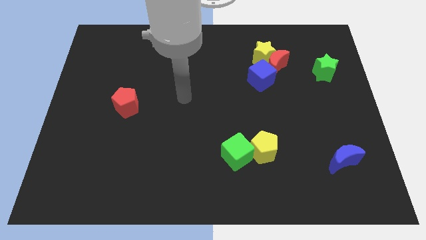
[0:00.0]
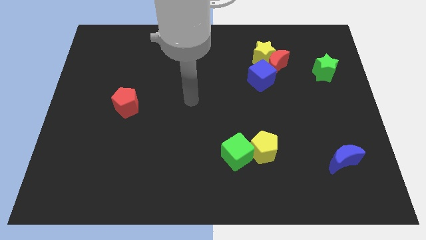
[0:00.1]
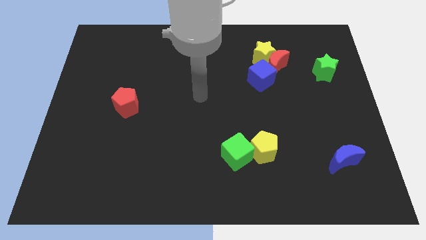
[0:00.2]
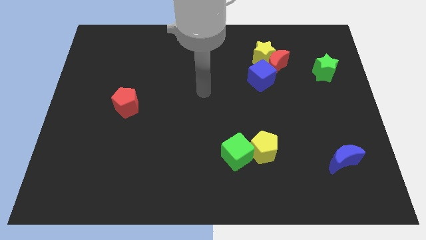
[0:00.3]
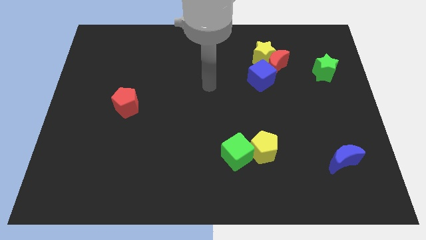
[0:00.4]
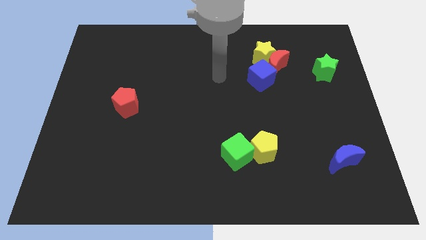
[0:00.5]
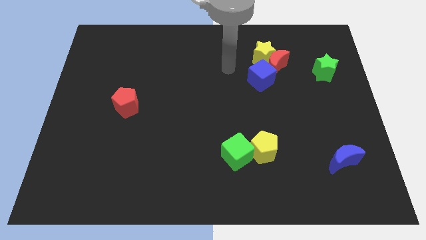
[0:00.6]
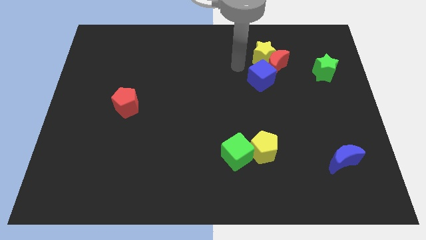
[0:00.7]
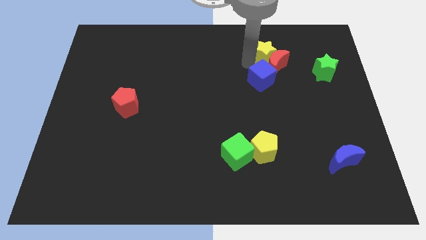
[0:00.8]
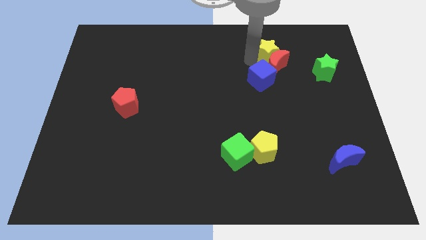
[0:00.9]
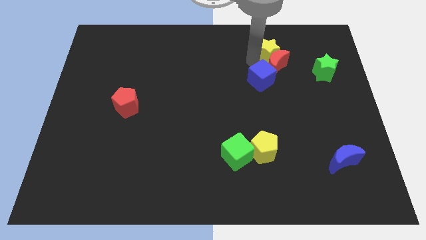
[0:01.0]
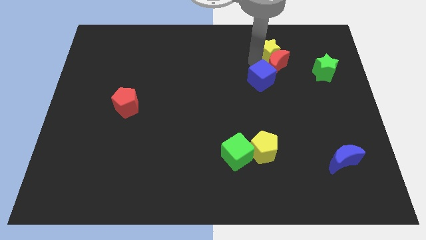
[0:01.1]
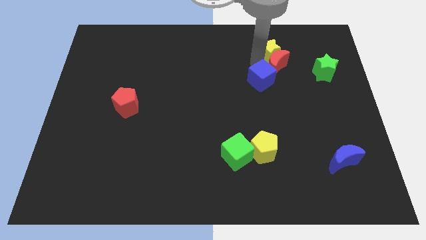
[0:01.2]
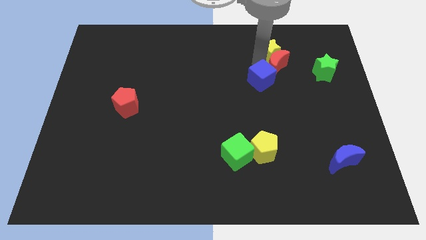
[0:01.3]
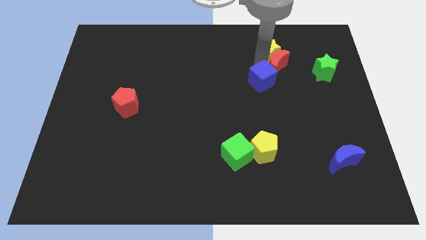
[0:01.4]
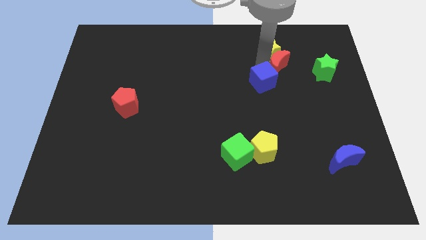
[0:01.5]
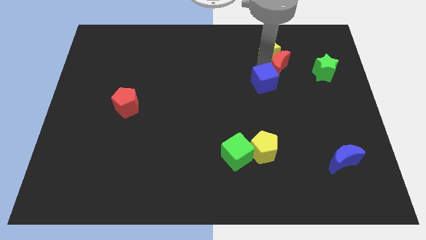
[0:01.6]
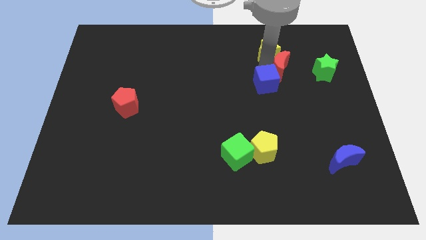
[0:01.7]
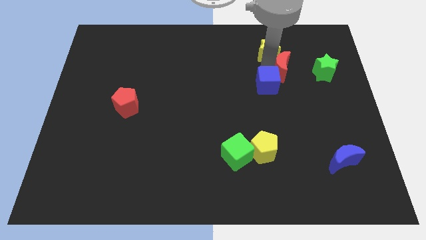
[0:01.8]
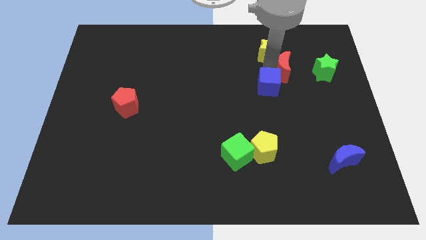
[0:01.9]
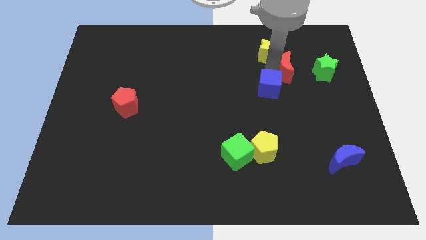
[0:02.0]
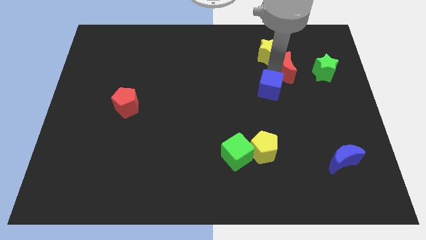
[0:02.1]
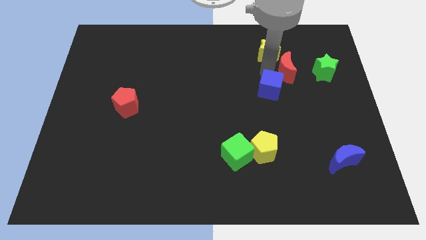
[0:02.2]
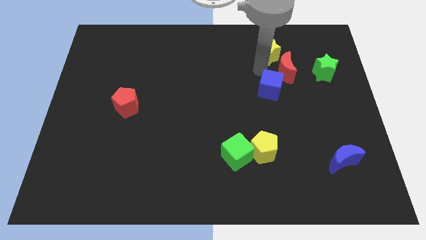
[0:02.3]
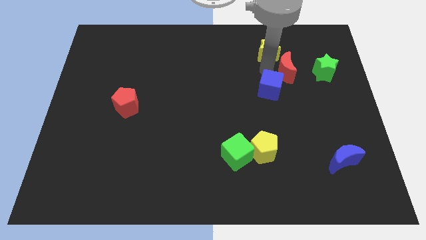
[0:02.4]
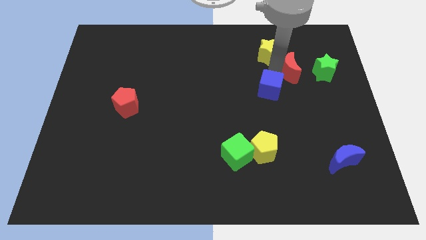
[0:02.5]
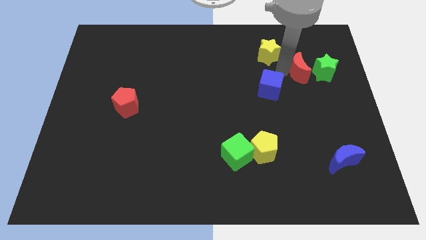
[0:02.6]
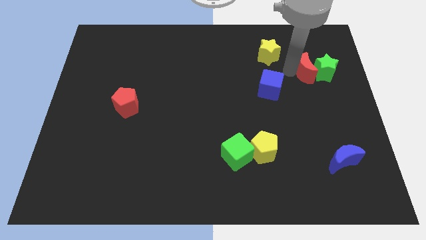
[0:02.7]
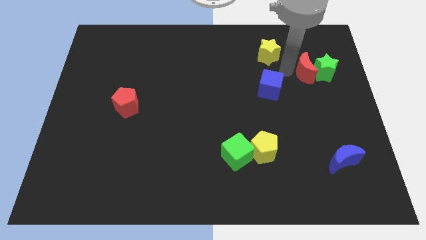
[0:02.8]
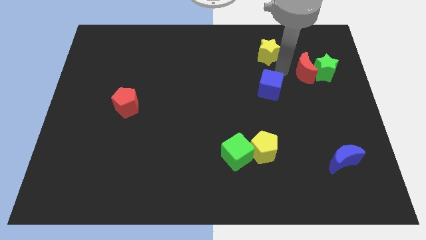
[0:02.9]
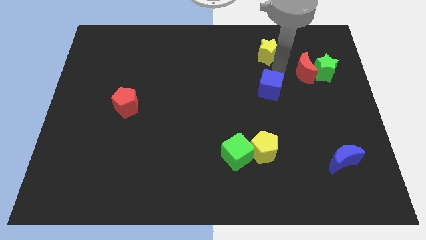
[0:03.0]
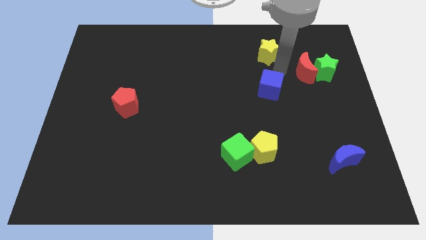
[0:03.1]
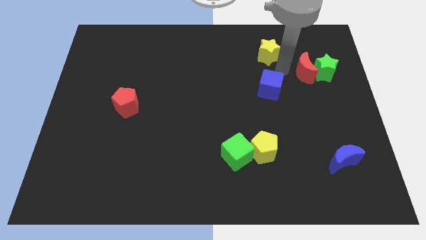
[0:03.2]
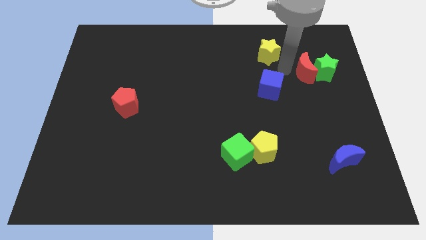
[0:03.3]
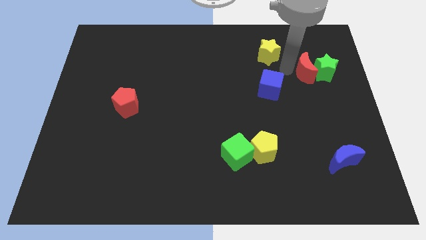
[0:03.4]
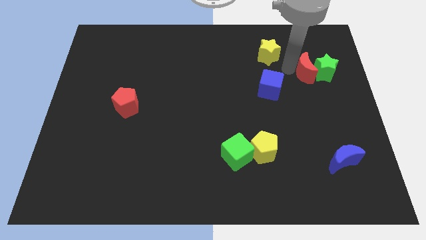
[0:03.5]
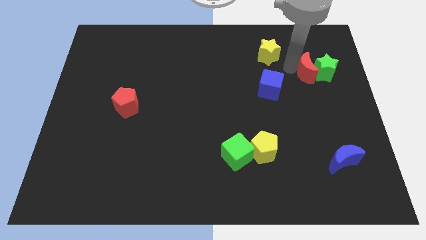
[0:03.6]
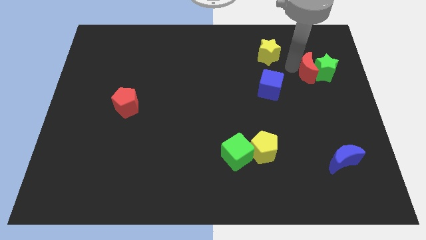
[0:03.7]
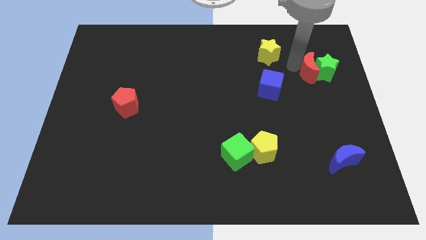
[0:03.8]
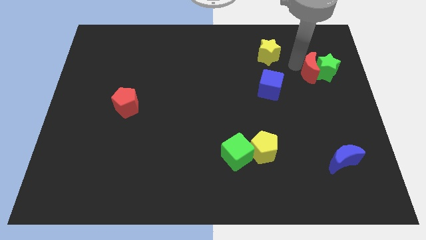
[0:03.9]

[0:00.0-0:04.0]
move the red moon away from the yellow star and blue cube

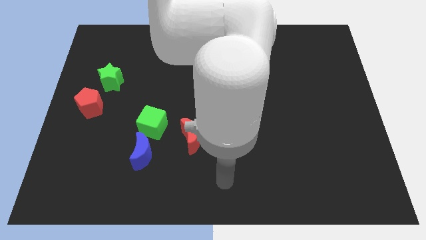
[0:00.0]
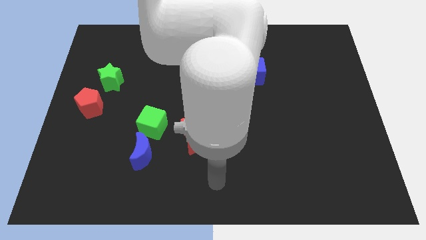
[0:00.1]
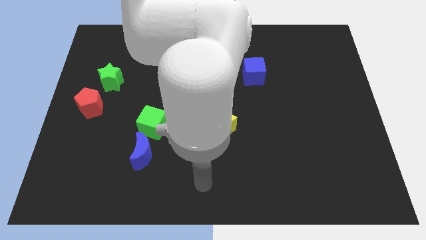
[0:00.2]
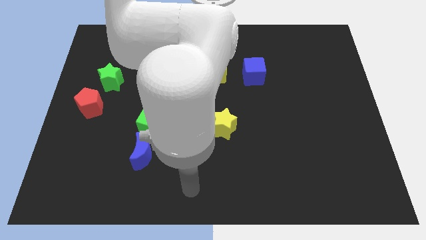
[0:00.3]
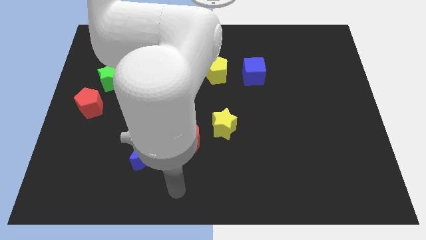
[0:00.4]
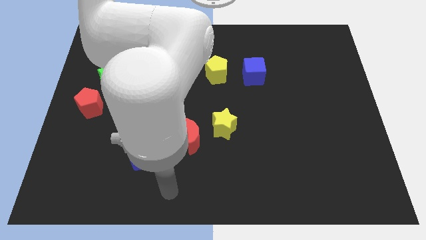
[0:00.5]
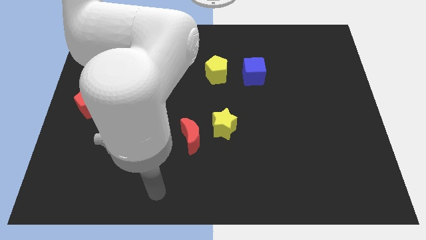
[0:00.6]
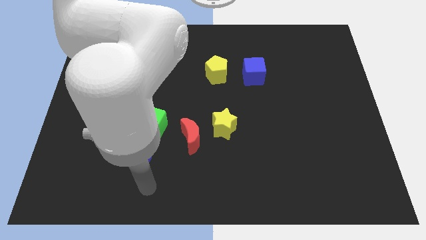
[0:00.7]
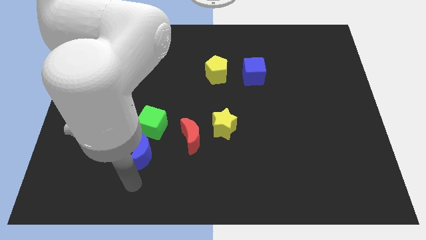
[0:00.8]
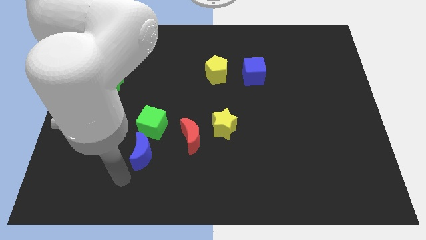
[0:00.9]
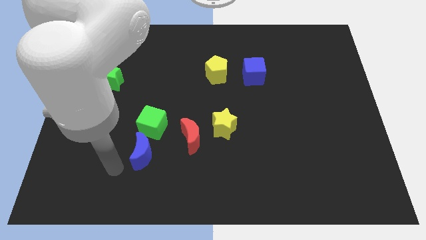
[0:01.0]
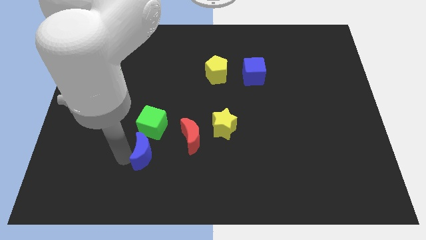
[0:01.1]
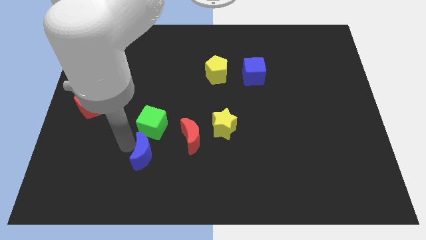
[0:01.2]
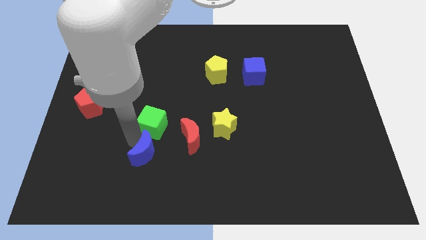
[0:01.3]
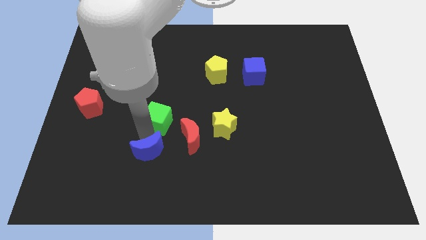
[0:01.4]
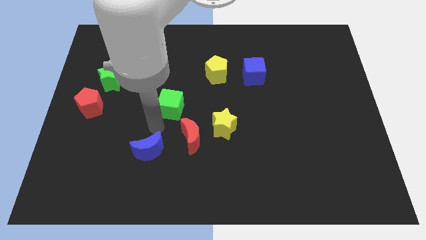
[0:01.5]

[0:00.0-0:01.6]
pull the blue moon apart from the green cube

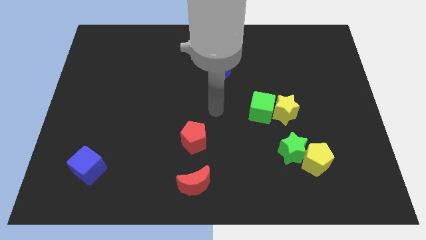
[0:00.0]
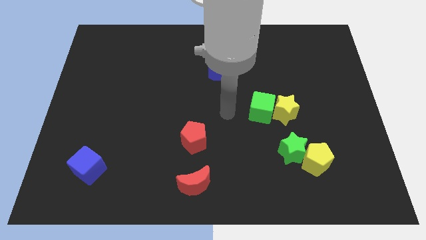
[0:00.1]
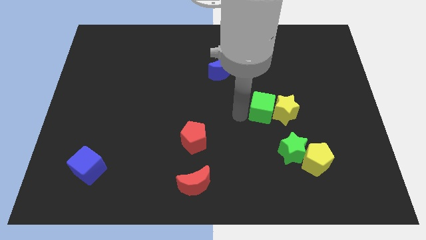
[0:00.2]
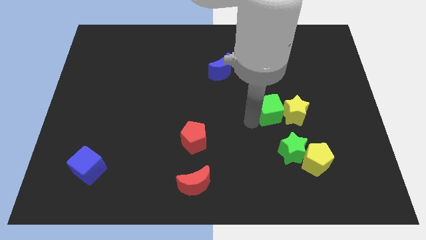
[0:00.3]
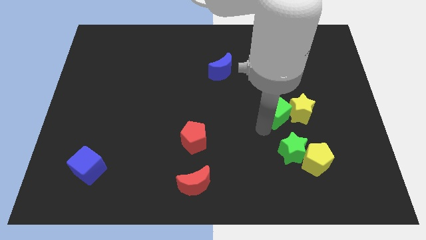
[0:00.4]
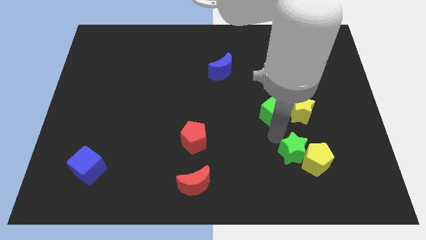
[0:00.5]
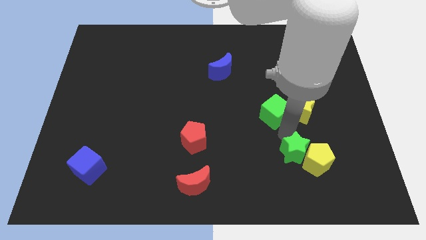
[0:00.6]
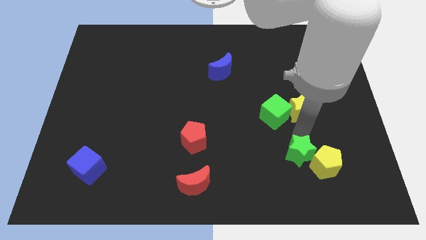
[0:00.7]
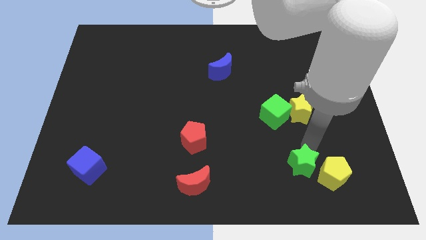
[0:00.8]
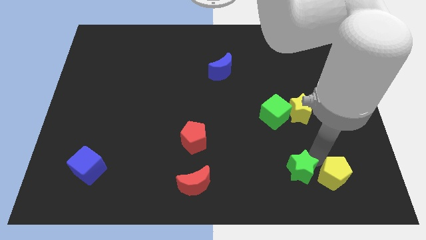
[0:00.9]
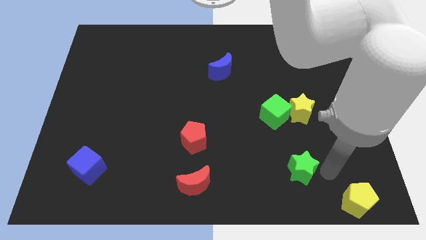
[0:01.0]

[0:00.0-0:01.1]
separate the green star from the yellow pentagon

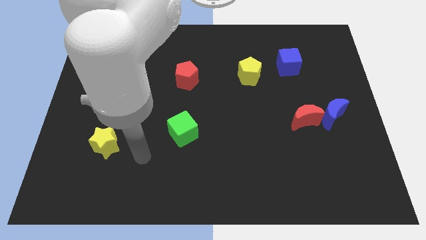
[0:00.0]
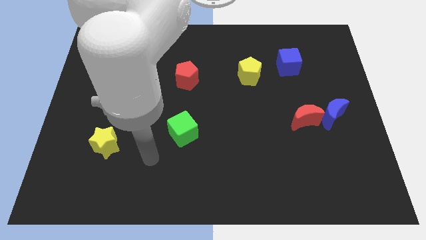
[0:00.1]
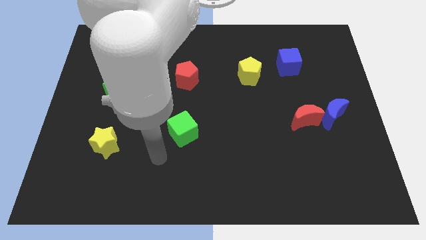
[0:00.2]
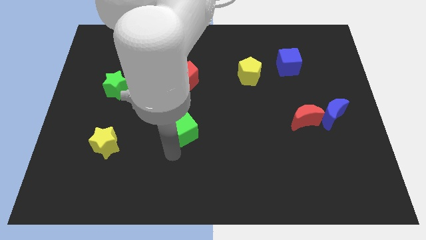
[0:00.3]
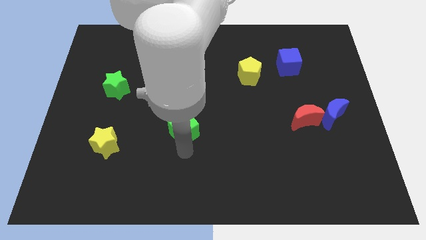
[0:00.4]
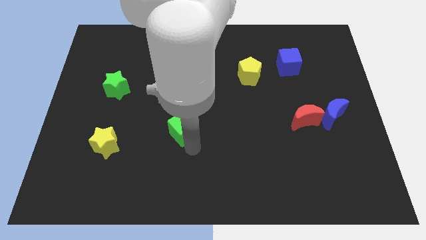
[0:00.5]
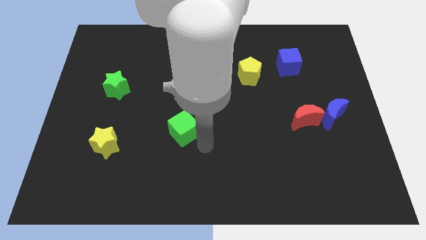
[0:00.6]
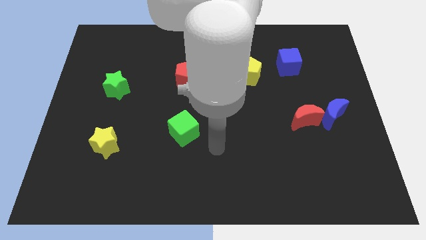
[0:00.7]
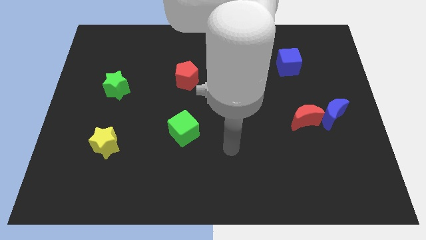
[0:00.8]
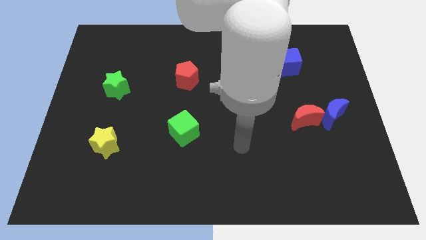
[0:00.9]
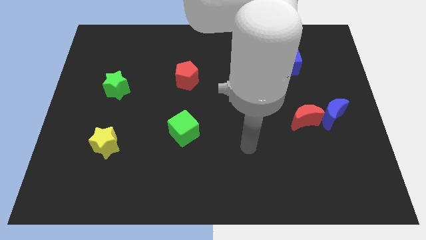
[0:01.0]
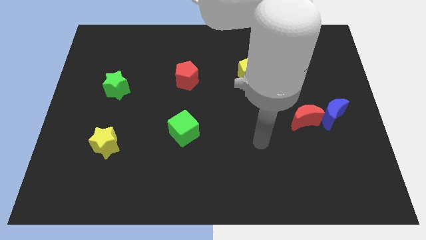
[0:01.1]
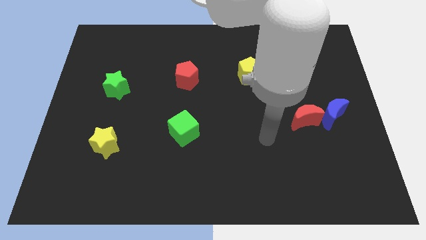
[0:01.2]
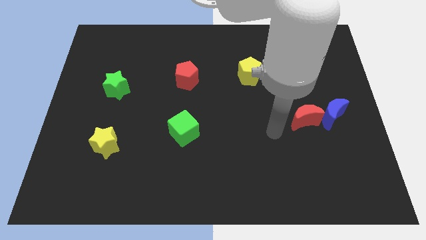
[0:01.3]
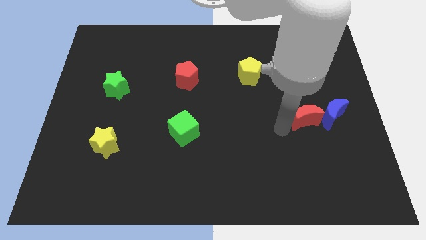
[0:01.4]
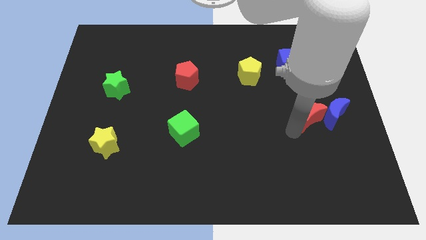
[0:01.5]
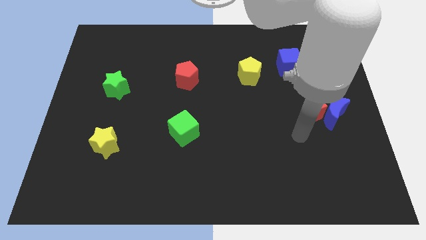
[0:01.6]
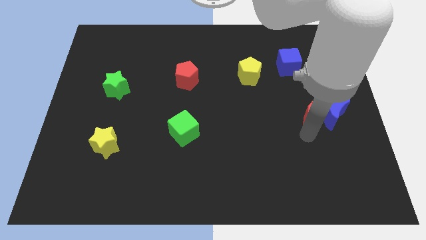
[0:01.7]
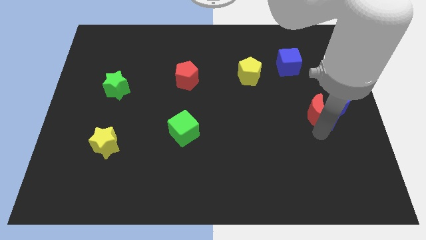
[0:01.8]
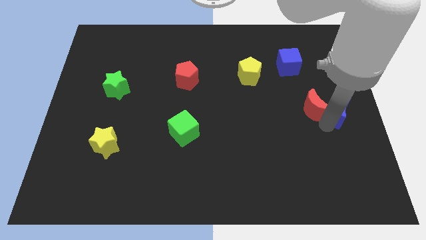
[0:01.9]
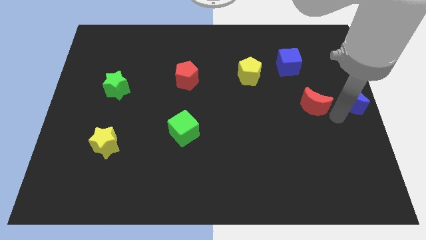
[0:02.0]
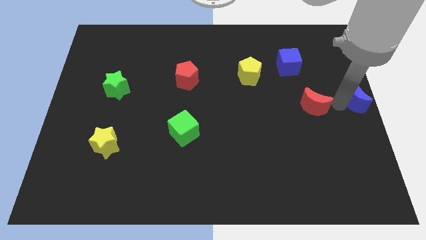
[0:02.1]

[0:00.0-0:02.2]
move the red moon away from the blue moon

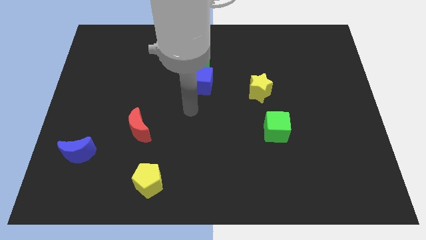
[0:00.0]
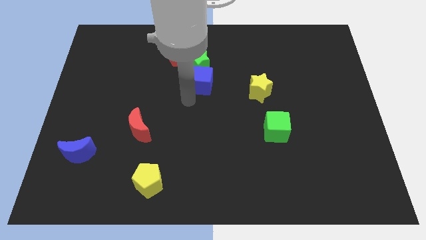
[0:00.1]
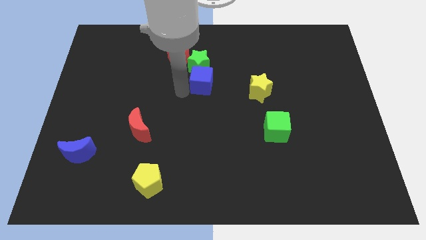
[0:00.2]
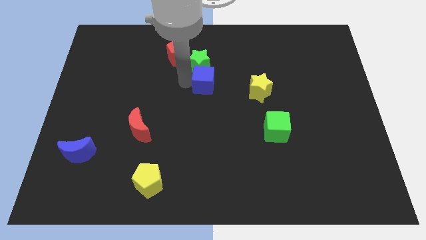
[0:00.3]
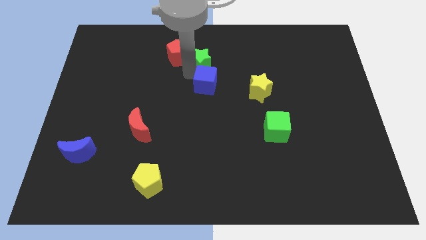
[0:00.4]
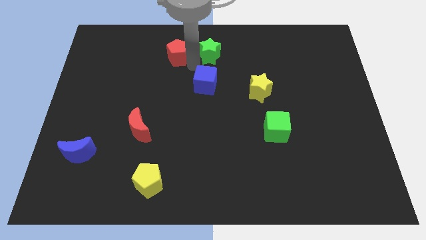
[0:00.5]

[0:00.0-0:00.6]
pull the blue cube apart from the green star
